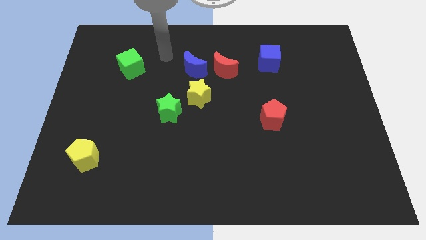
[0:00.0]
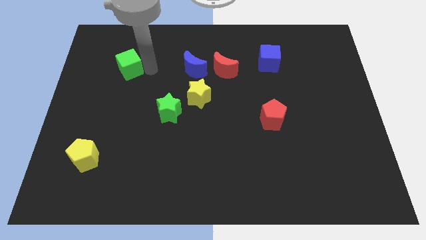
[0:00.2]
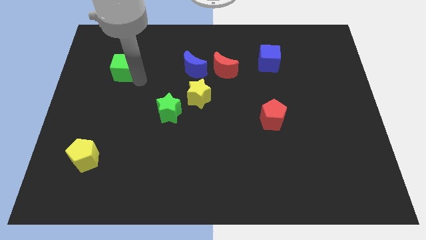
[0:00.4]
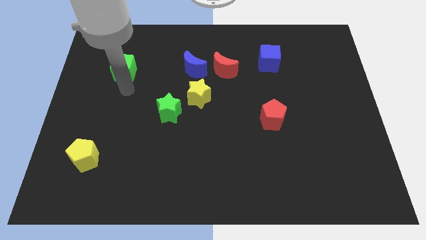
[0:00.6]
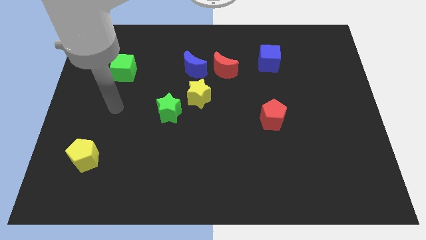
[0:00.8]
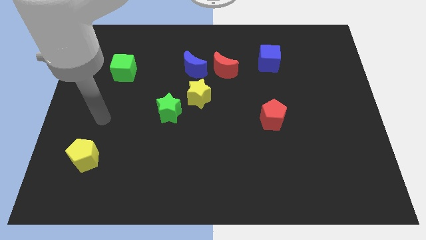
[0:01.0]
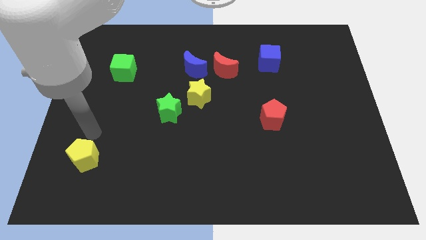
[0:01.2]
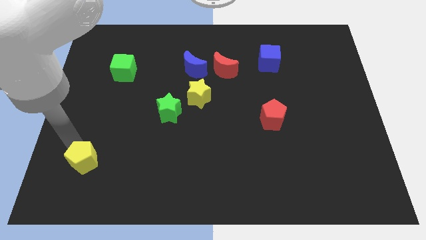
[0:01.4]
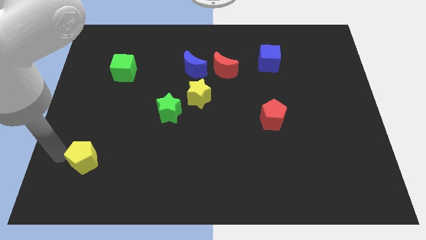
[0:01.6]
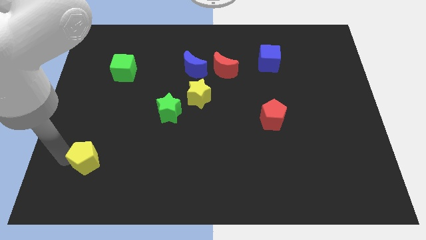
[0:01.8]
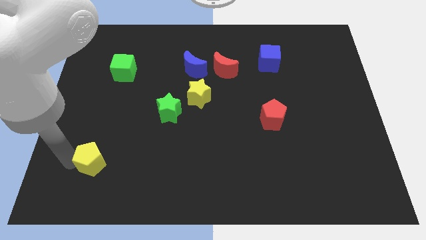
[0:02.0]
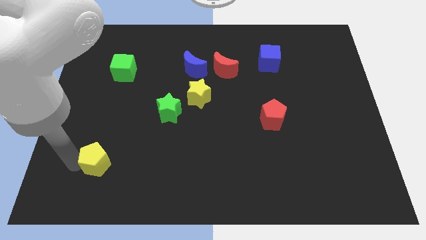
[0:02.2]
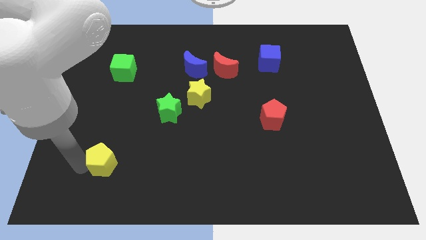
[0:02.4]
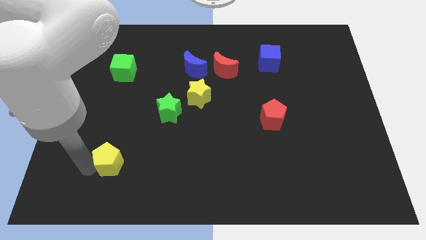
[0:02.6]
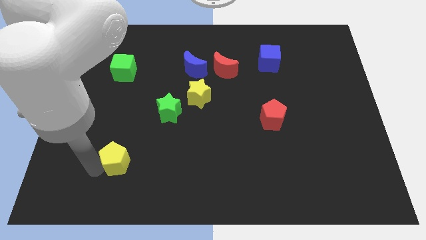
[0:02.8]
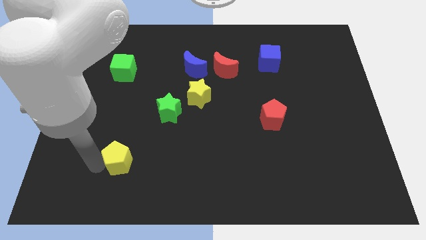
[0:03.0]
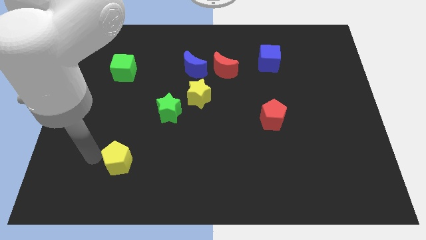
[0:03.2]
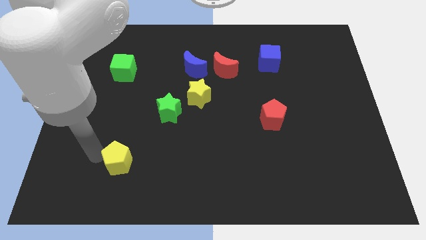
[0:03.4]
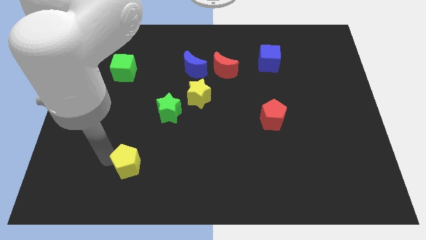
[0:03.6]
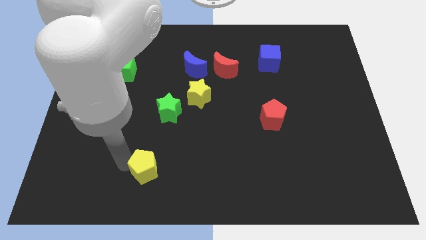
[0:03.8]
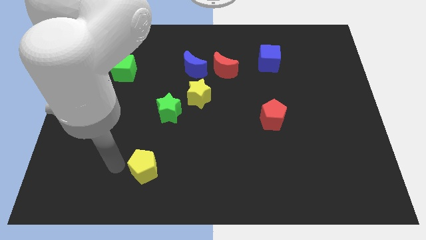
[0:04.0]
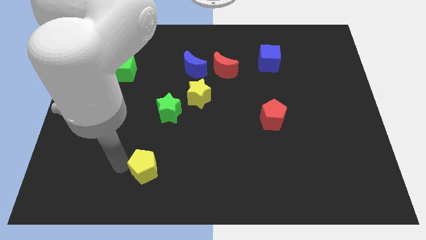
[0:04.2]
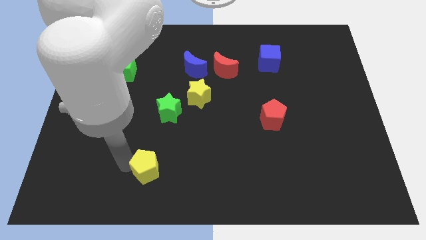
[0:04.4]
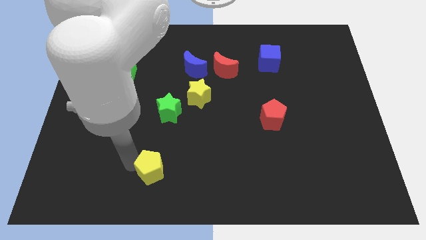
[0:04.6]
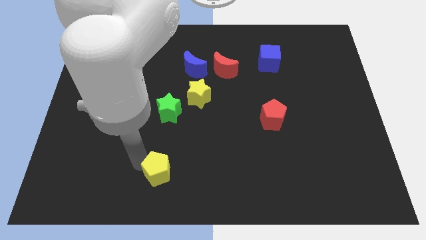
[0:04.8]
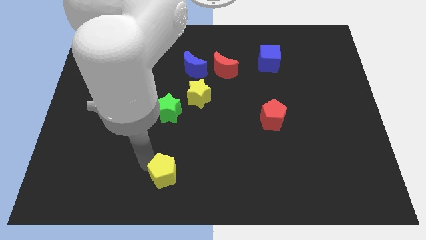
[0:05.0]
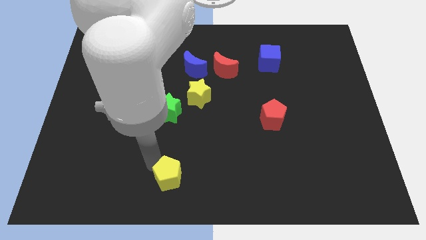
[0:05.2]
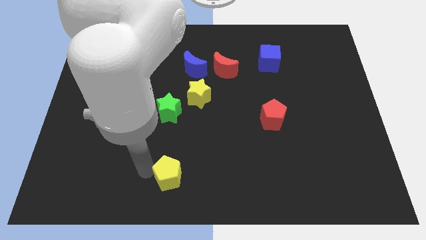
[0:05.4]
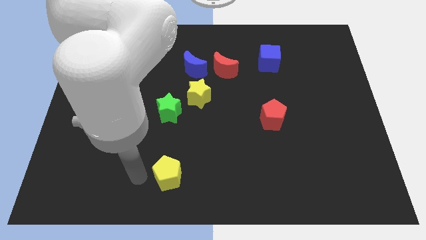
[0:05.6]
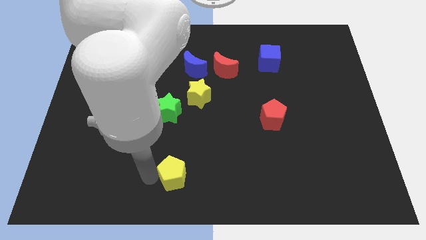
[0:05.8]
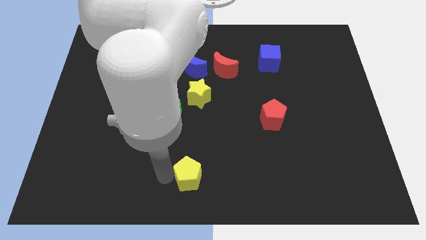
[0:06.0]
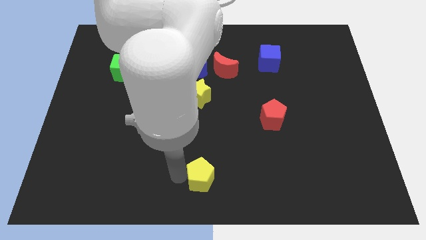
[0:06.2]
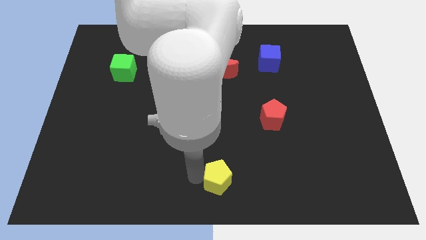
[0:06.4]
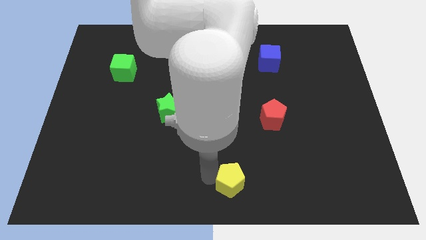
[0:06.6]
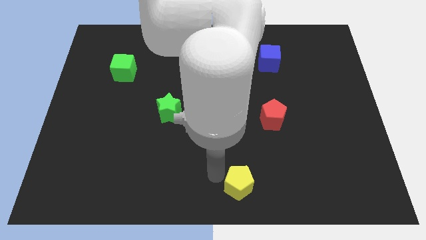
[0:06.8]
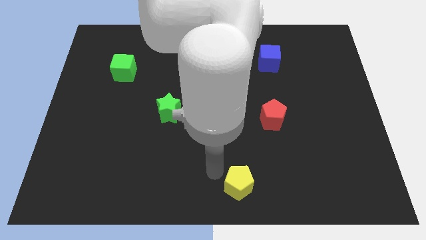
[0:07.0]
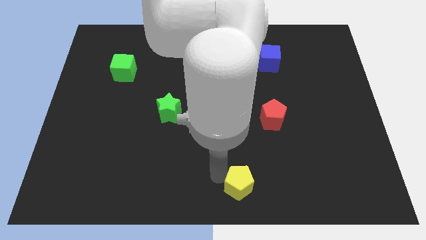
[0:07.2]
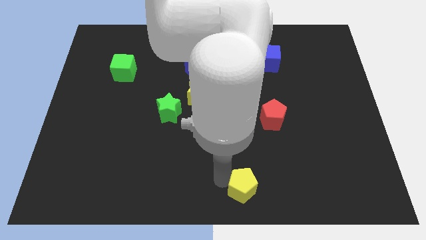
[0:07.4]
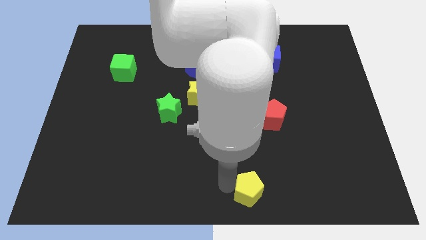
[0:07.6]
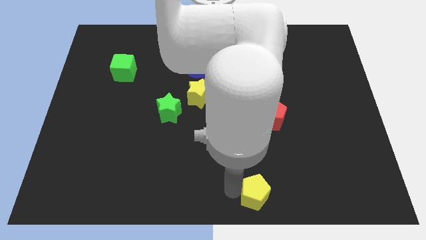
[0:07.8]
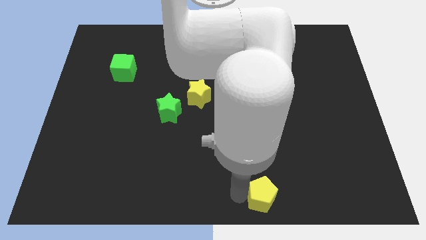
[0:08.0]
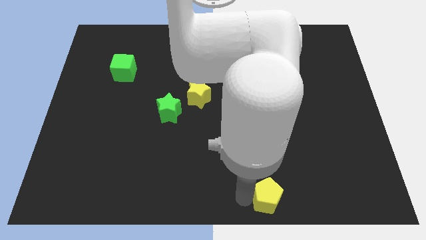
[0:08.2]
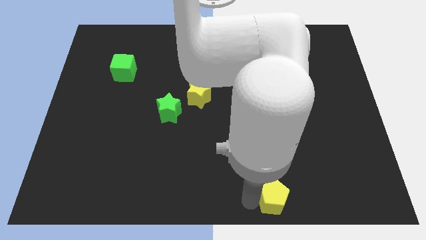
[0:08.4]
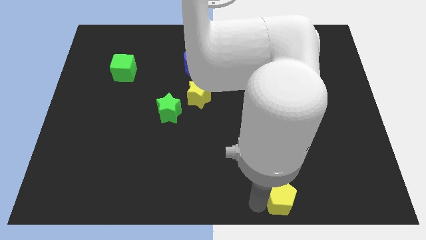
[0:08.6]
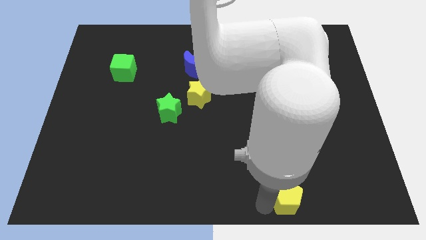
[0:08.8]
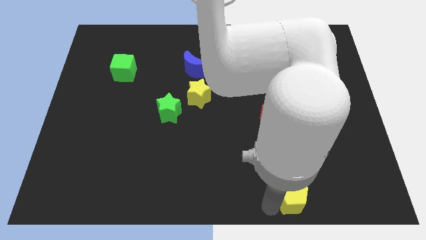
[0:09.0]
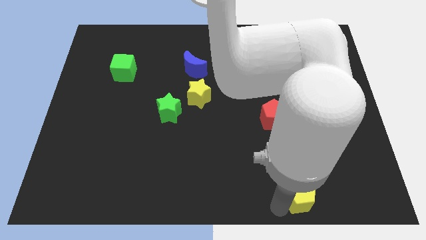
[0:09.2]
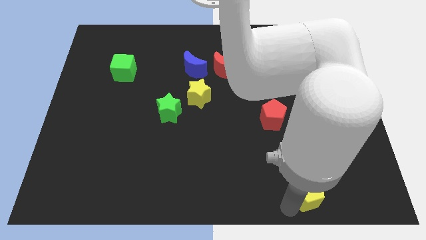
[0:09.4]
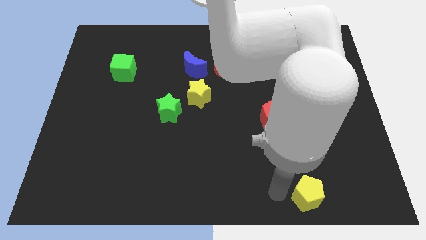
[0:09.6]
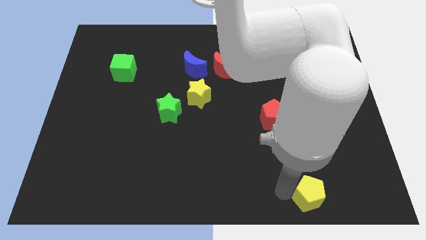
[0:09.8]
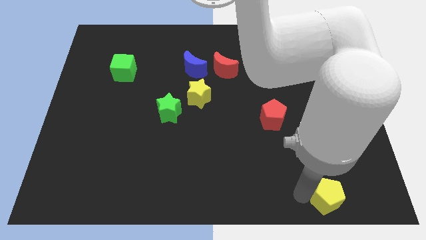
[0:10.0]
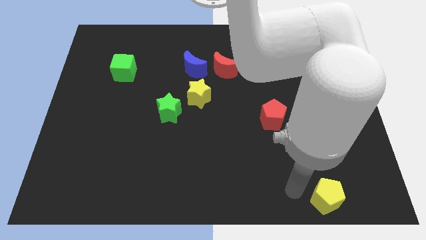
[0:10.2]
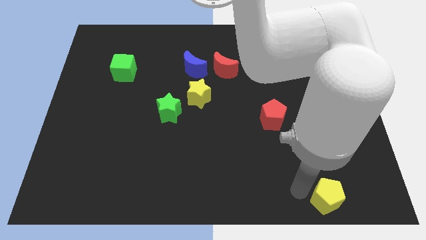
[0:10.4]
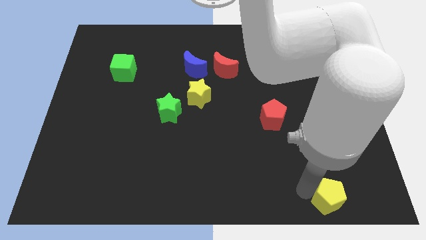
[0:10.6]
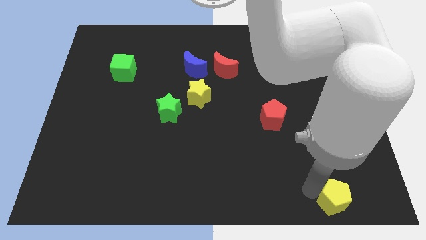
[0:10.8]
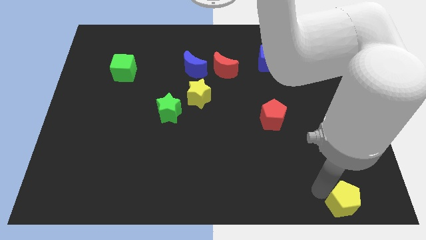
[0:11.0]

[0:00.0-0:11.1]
slide the yellow pentagon to the bottom right of the board

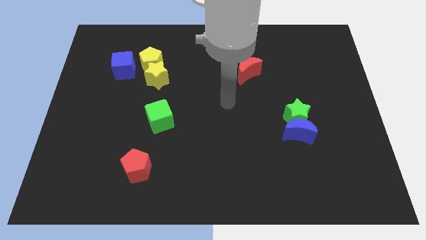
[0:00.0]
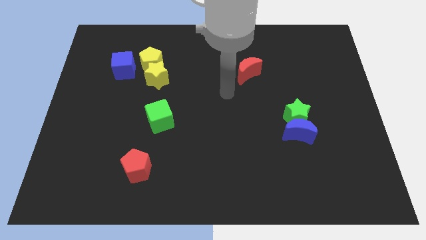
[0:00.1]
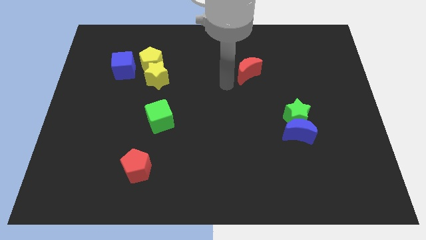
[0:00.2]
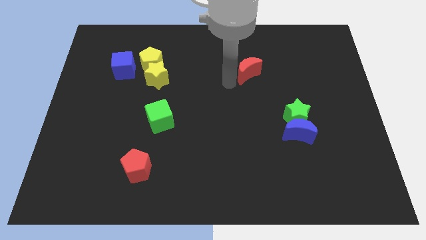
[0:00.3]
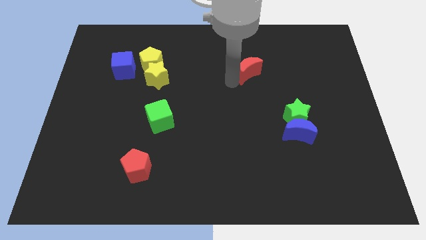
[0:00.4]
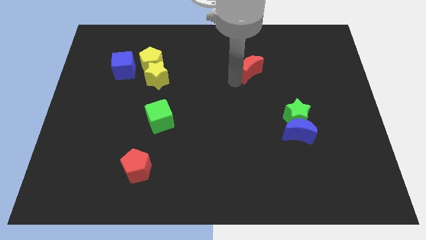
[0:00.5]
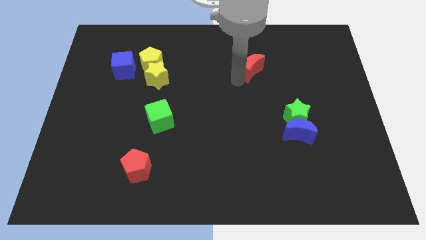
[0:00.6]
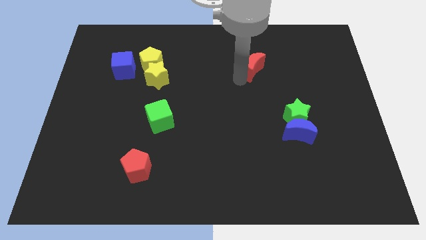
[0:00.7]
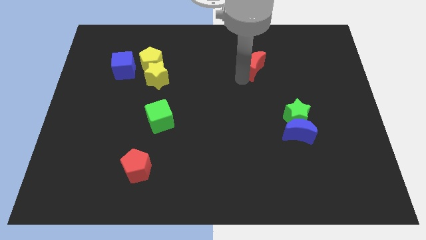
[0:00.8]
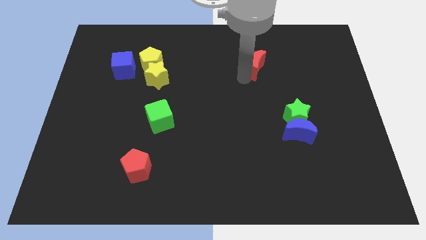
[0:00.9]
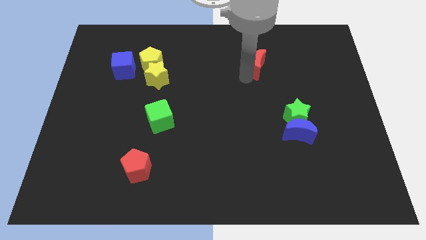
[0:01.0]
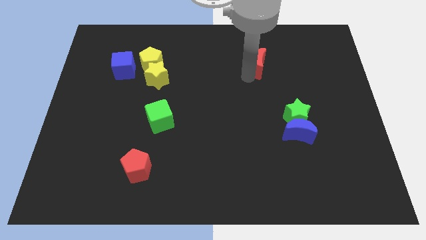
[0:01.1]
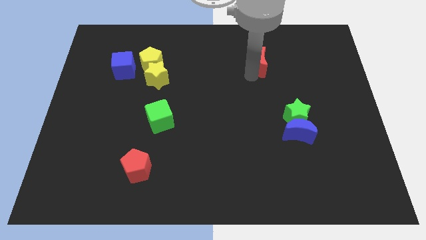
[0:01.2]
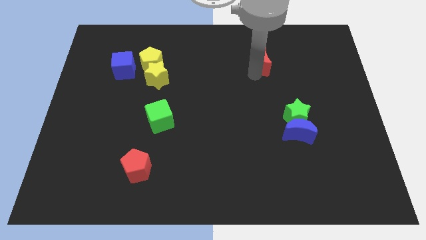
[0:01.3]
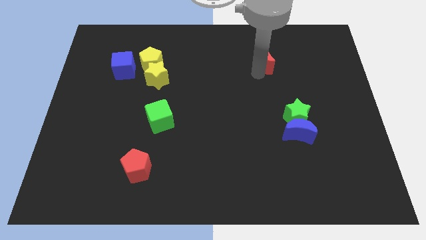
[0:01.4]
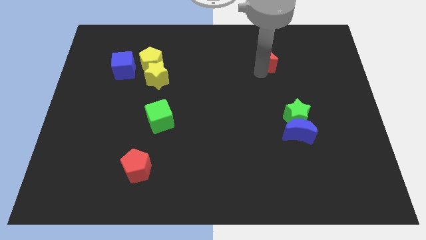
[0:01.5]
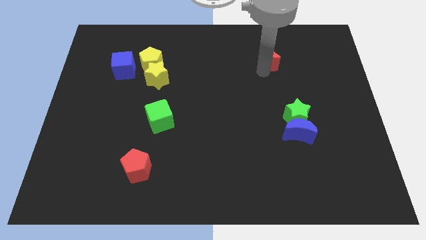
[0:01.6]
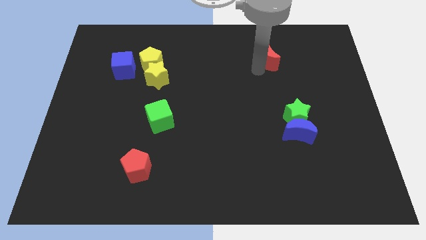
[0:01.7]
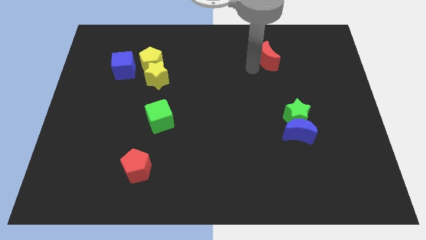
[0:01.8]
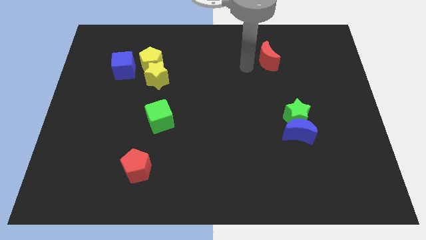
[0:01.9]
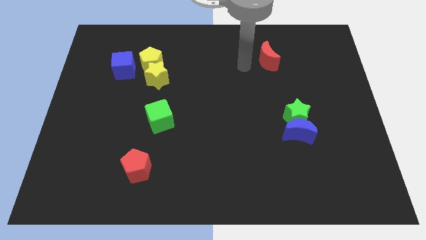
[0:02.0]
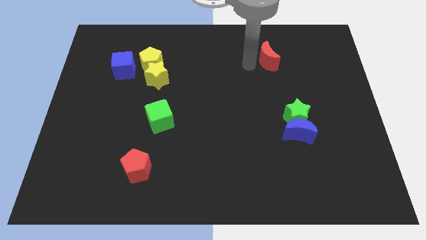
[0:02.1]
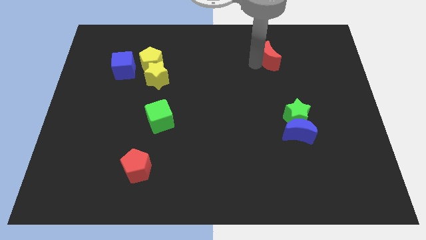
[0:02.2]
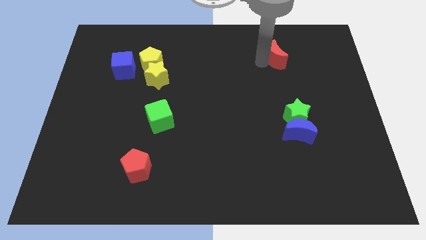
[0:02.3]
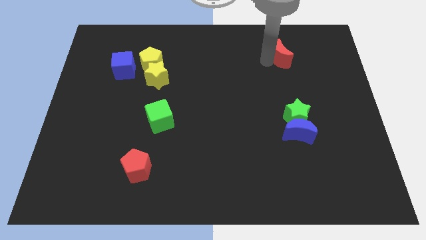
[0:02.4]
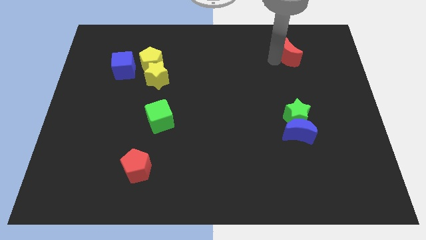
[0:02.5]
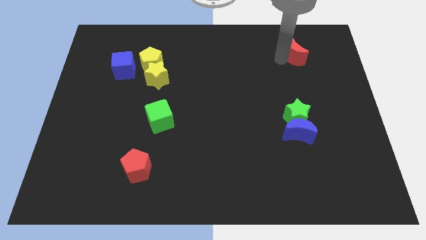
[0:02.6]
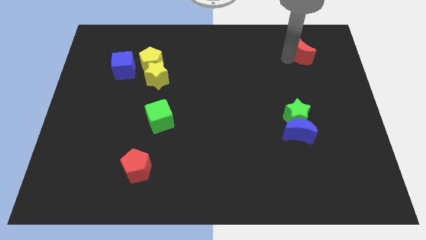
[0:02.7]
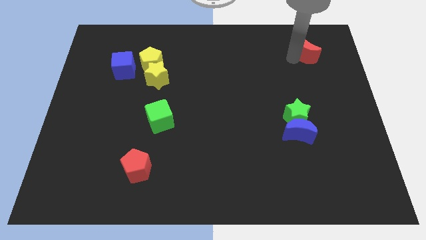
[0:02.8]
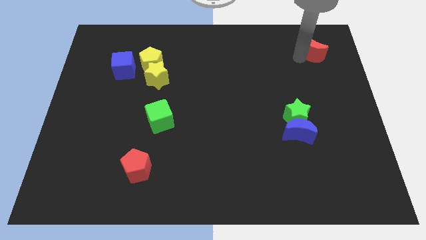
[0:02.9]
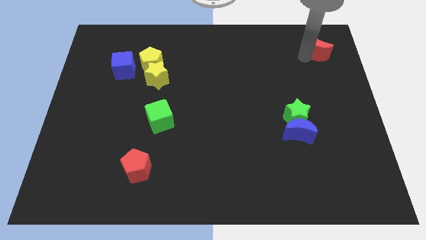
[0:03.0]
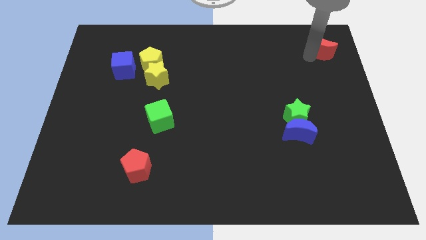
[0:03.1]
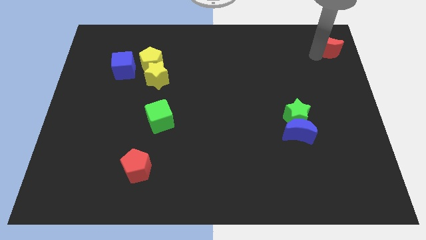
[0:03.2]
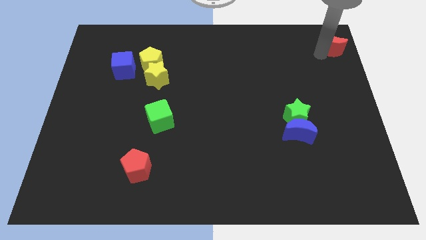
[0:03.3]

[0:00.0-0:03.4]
slide the red moon to the top right of the board
